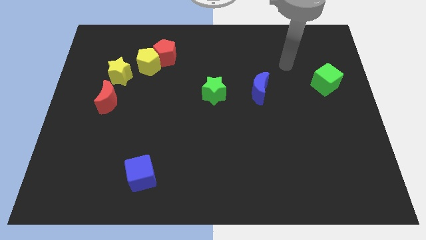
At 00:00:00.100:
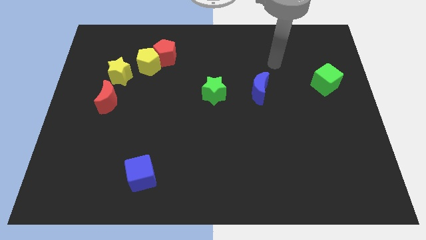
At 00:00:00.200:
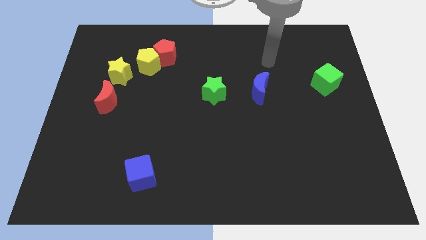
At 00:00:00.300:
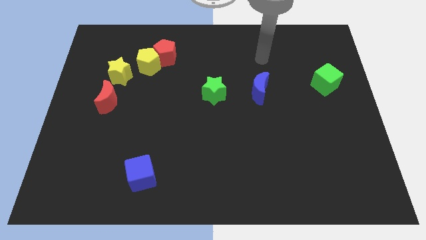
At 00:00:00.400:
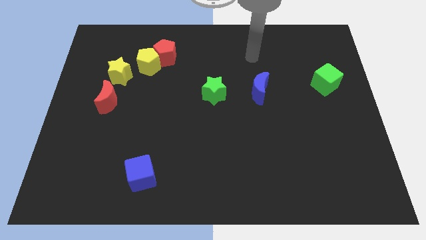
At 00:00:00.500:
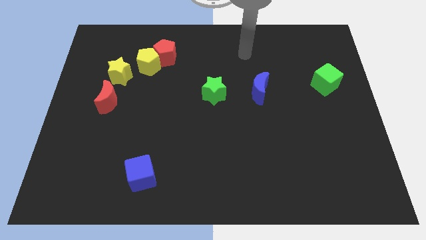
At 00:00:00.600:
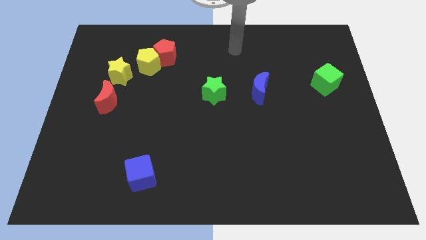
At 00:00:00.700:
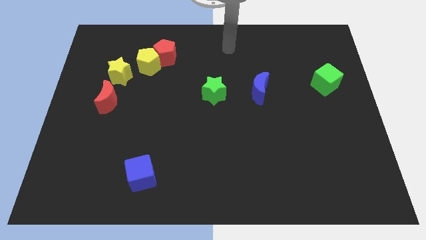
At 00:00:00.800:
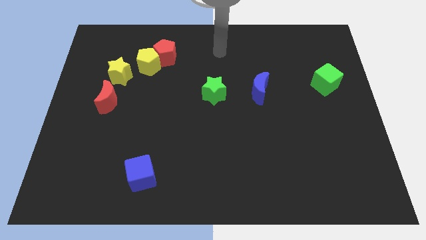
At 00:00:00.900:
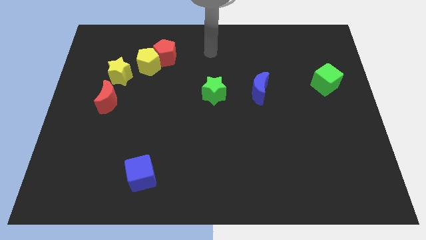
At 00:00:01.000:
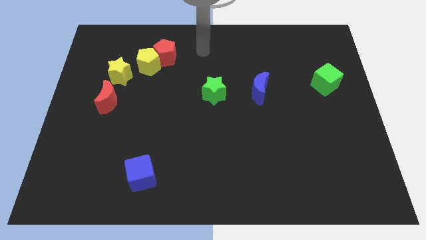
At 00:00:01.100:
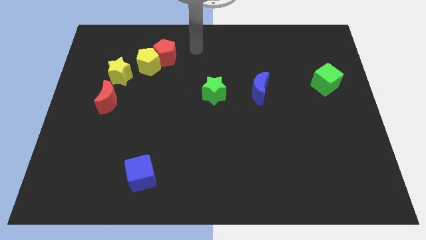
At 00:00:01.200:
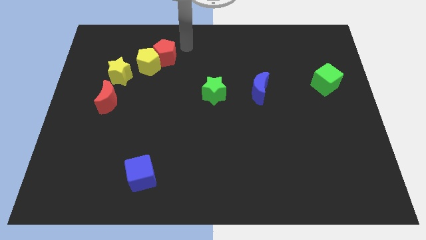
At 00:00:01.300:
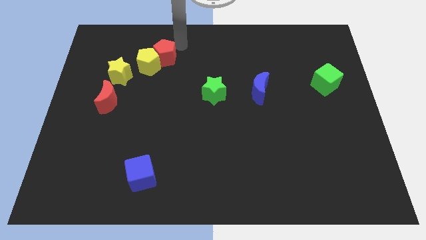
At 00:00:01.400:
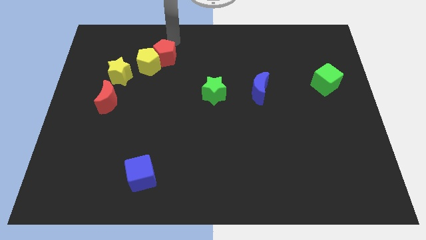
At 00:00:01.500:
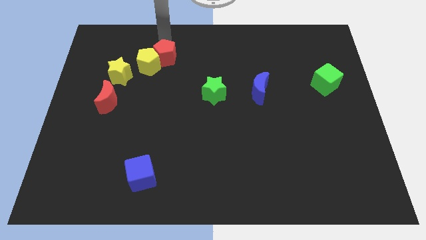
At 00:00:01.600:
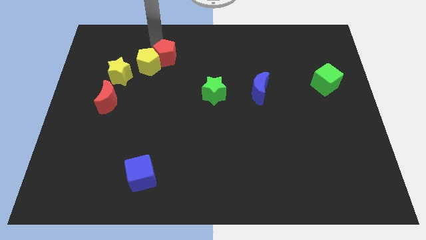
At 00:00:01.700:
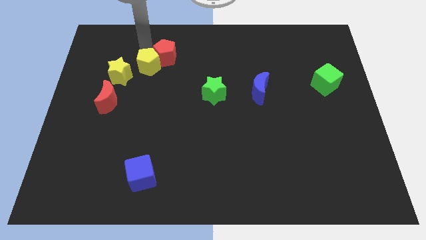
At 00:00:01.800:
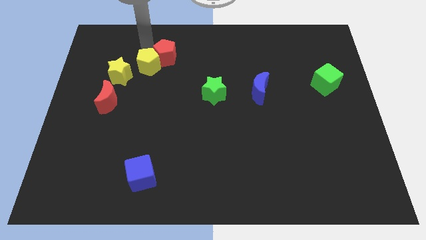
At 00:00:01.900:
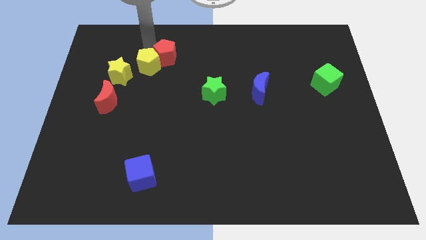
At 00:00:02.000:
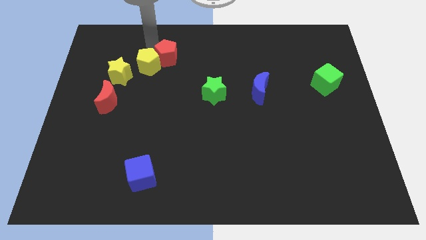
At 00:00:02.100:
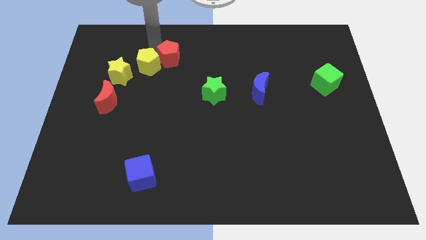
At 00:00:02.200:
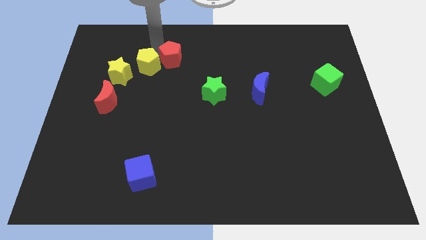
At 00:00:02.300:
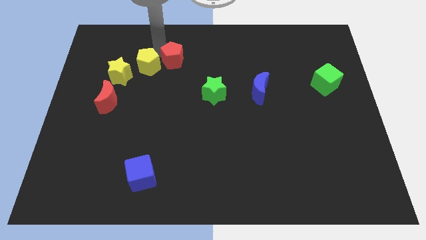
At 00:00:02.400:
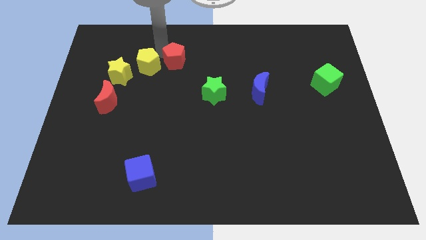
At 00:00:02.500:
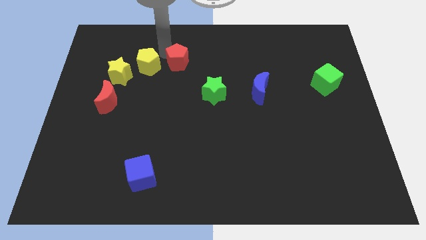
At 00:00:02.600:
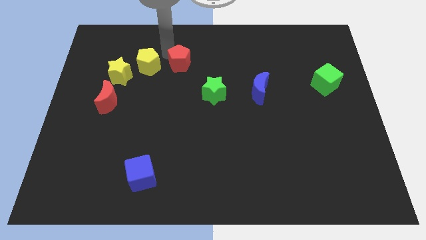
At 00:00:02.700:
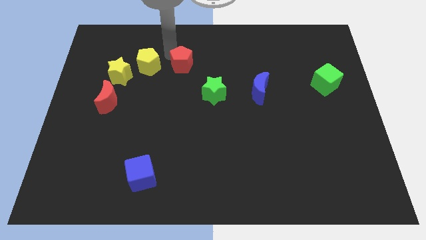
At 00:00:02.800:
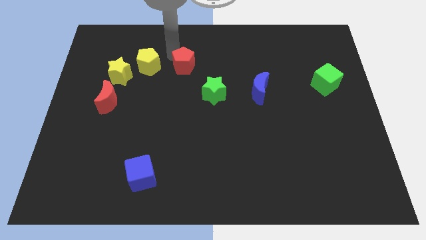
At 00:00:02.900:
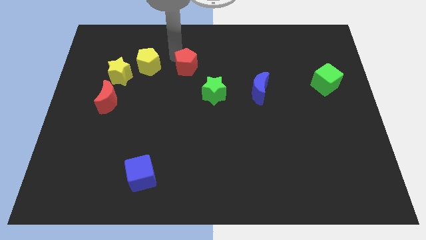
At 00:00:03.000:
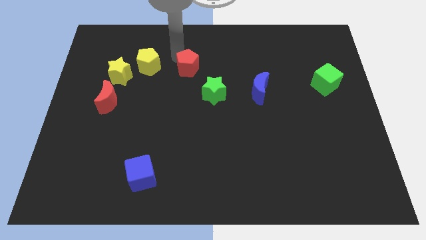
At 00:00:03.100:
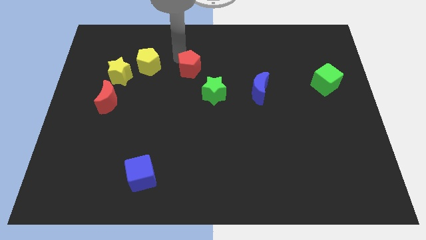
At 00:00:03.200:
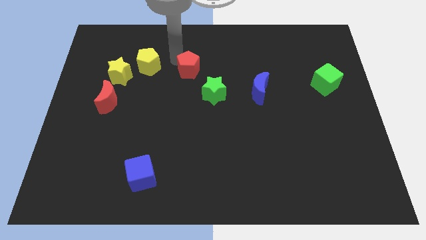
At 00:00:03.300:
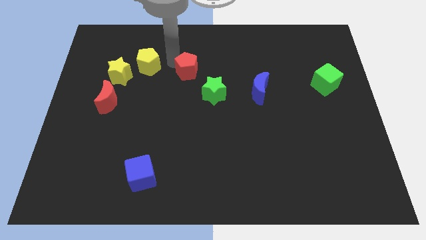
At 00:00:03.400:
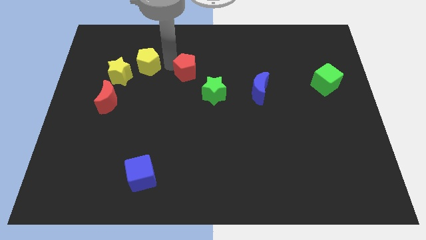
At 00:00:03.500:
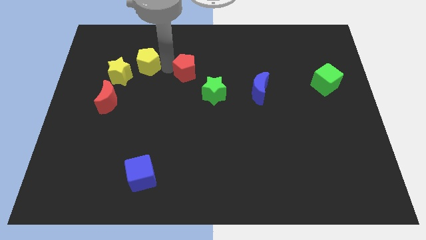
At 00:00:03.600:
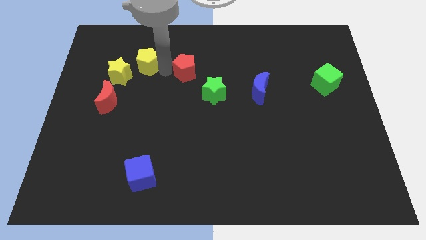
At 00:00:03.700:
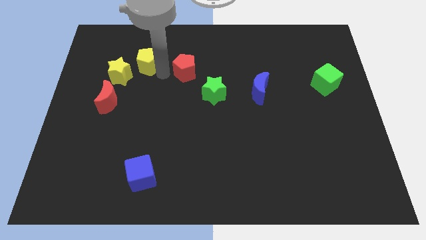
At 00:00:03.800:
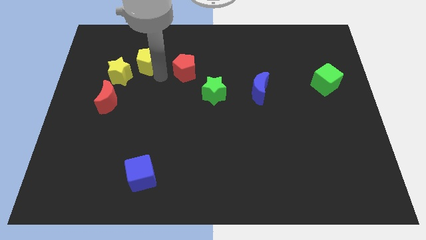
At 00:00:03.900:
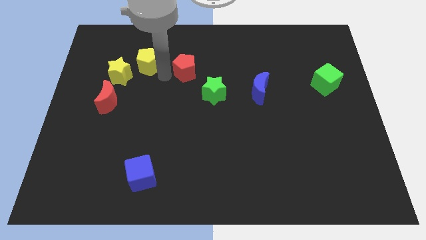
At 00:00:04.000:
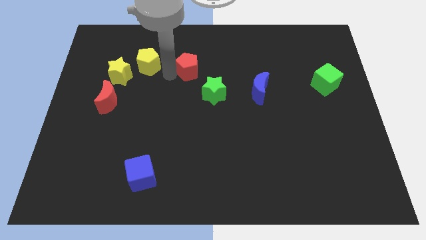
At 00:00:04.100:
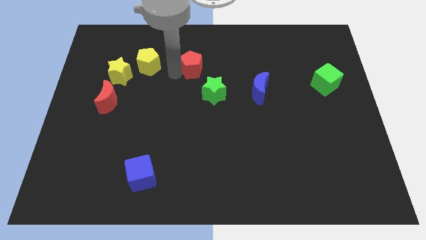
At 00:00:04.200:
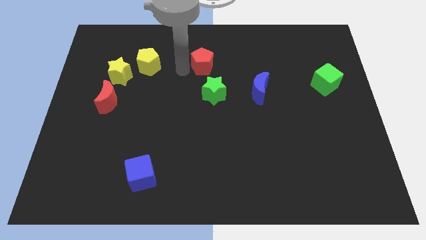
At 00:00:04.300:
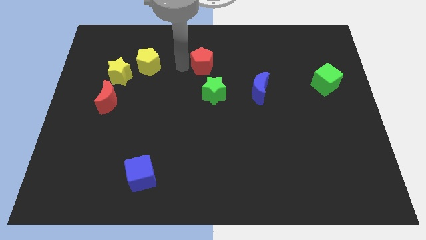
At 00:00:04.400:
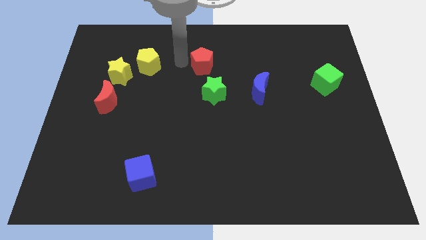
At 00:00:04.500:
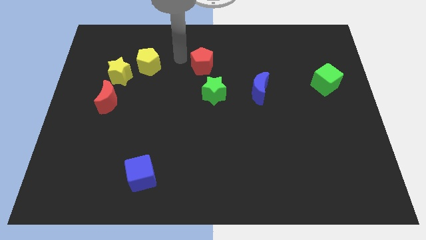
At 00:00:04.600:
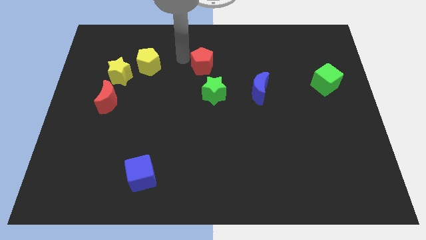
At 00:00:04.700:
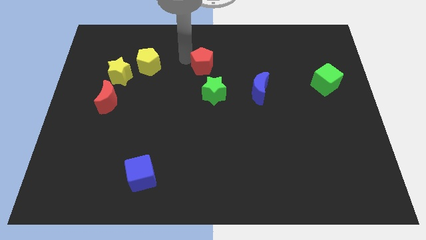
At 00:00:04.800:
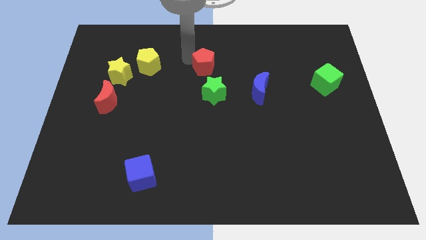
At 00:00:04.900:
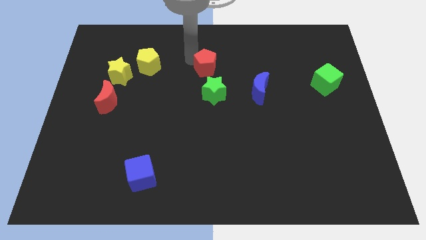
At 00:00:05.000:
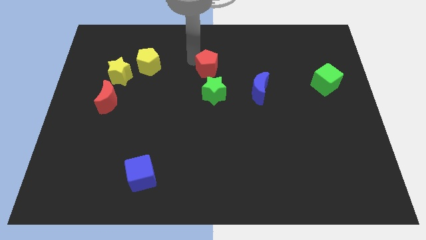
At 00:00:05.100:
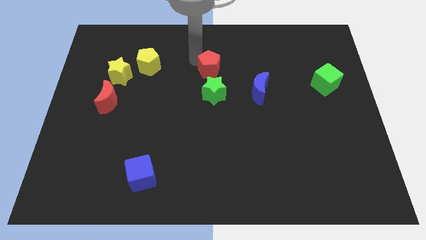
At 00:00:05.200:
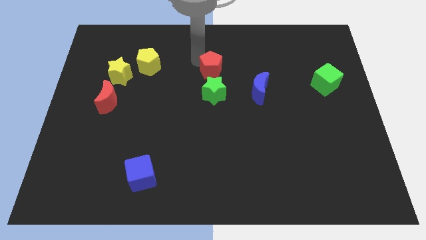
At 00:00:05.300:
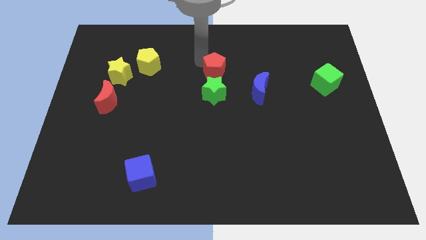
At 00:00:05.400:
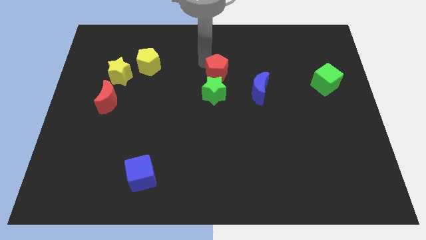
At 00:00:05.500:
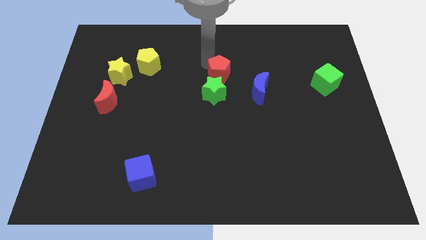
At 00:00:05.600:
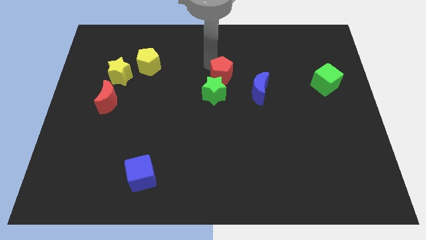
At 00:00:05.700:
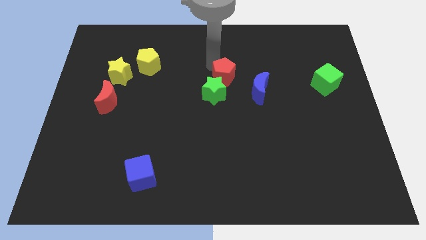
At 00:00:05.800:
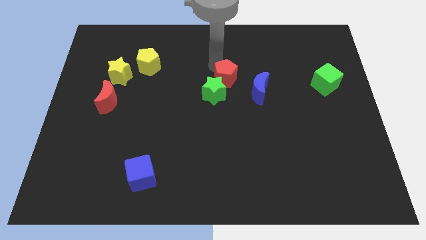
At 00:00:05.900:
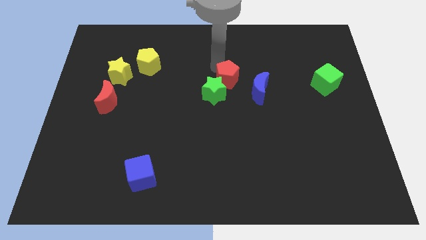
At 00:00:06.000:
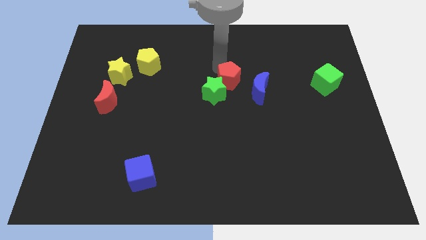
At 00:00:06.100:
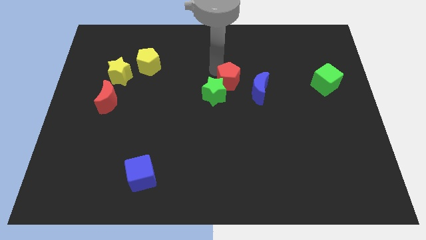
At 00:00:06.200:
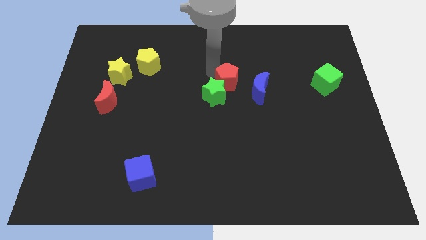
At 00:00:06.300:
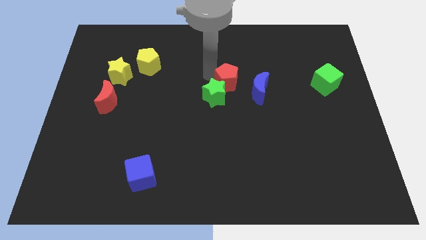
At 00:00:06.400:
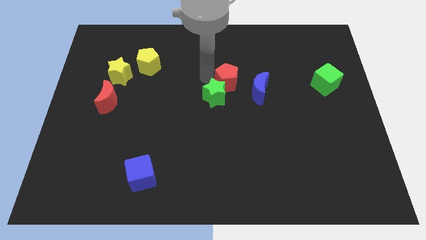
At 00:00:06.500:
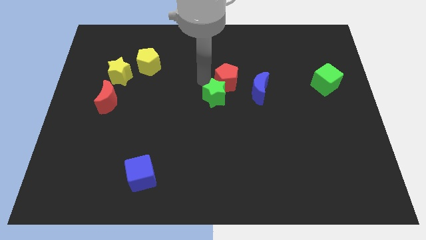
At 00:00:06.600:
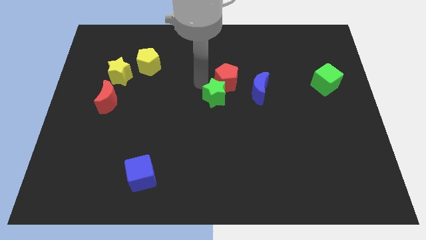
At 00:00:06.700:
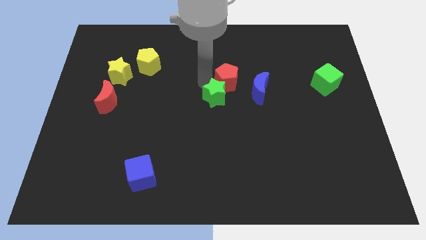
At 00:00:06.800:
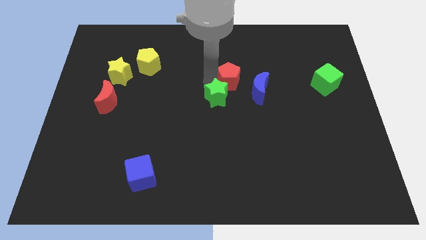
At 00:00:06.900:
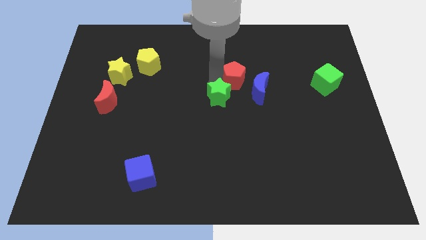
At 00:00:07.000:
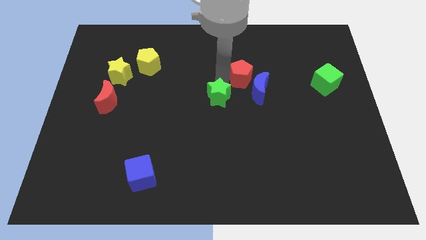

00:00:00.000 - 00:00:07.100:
move the red pentagon towards the blue moon
